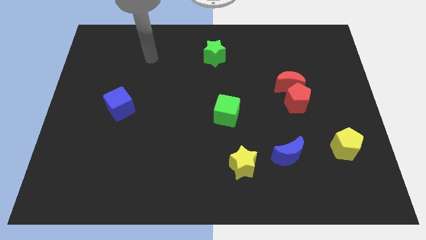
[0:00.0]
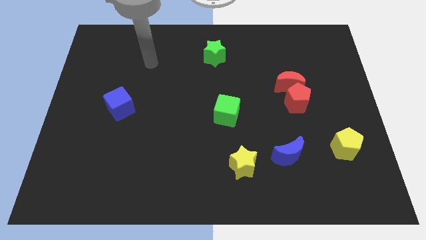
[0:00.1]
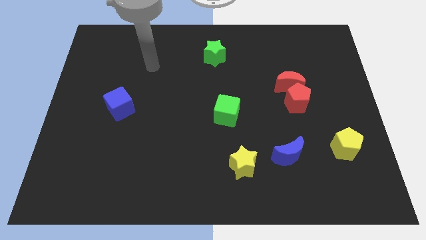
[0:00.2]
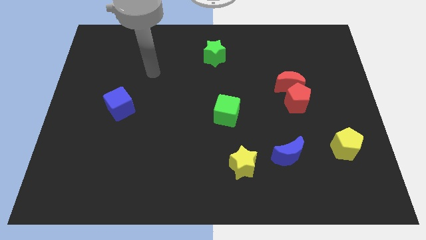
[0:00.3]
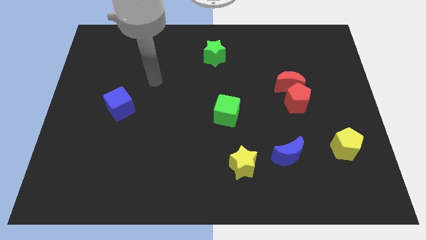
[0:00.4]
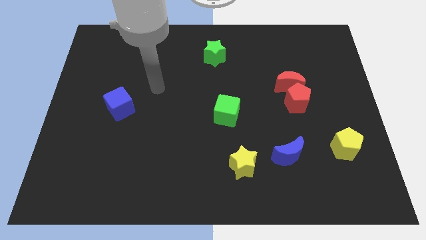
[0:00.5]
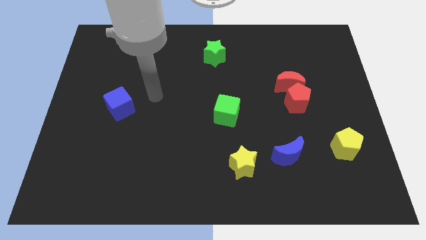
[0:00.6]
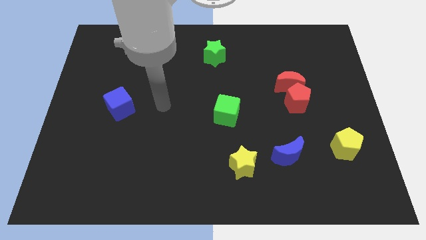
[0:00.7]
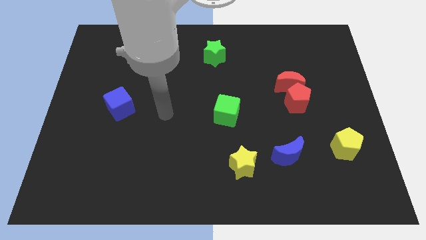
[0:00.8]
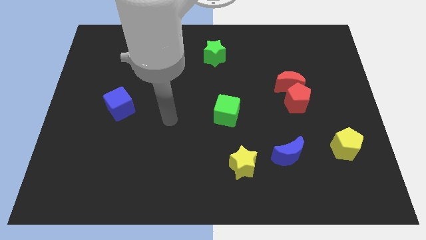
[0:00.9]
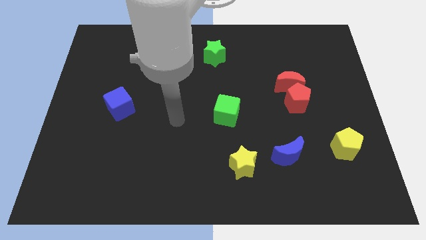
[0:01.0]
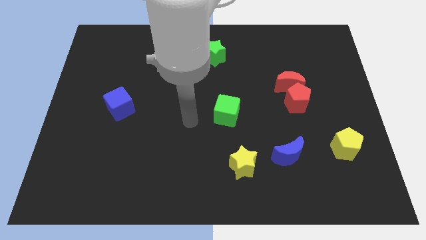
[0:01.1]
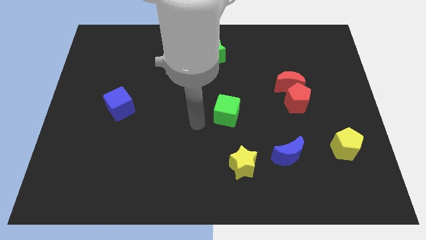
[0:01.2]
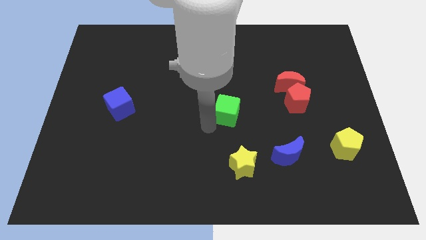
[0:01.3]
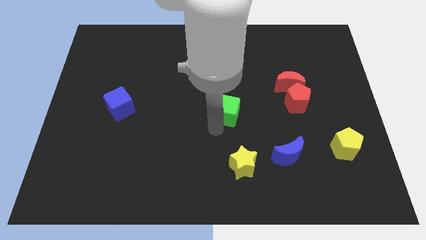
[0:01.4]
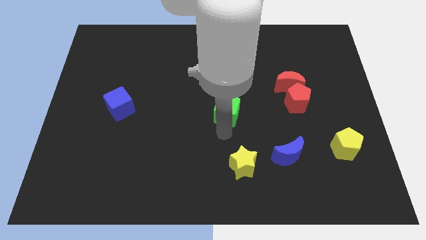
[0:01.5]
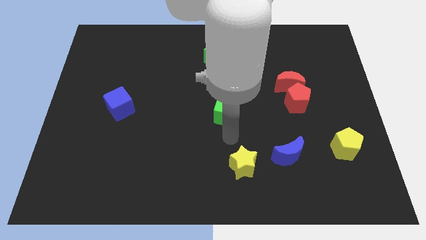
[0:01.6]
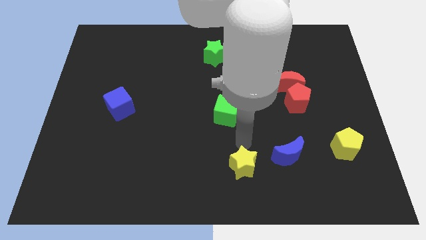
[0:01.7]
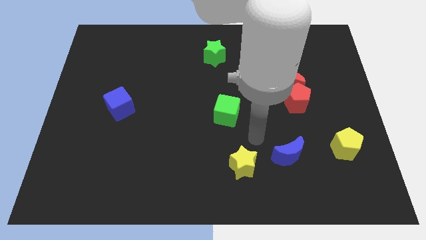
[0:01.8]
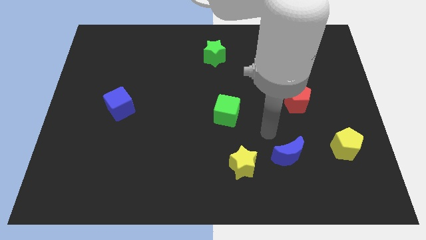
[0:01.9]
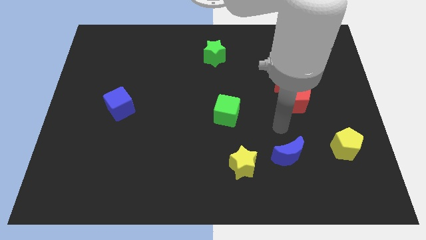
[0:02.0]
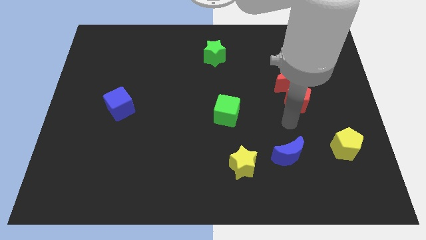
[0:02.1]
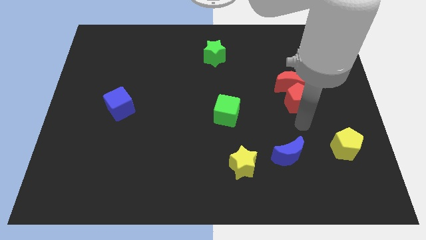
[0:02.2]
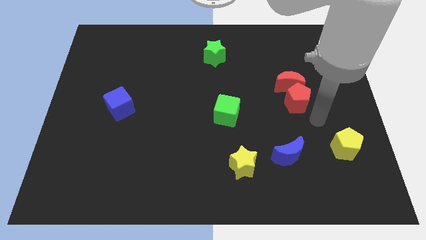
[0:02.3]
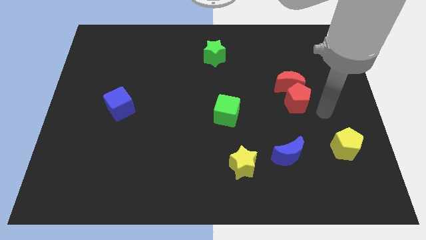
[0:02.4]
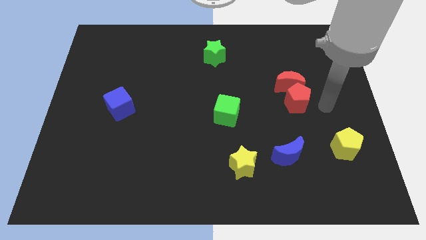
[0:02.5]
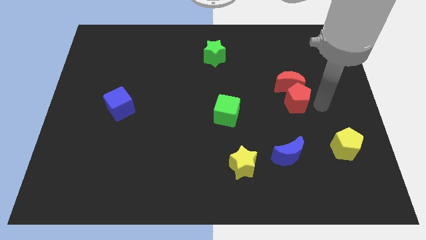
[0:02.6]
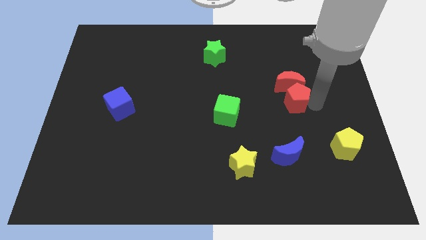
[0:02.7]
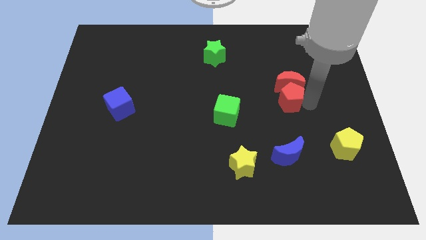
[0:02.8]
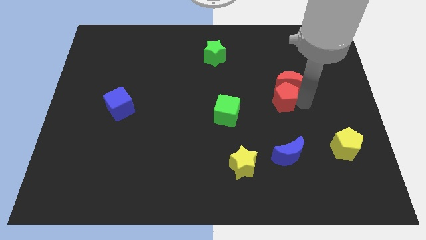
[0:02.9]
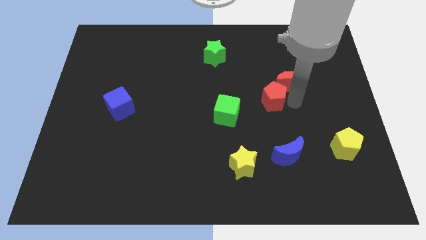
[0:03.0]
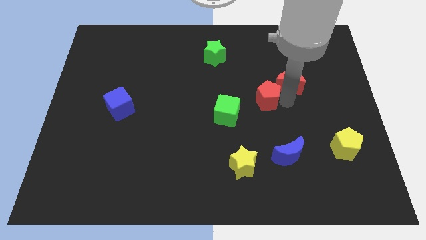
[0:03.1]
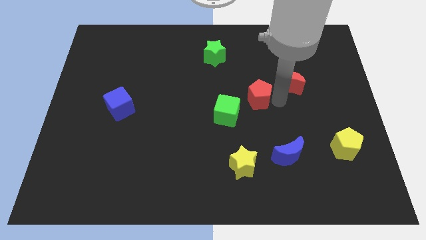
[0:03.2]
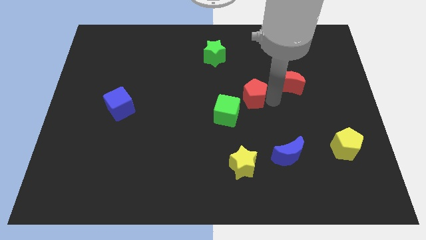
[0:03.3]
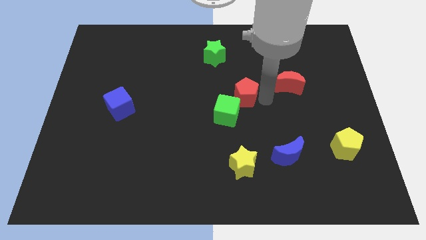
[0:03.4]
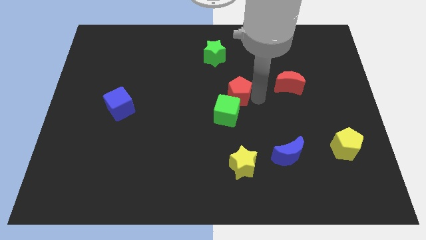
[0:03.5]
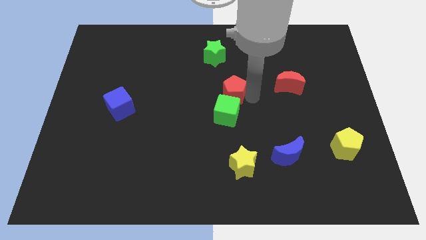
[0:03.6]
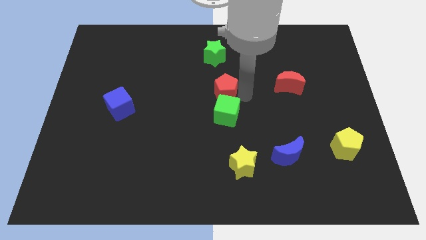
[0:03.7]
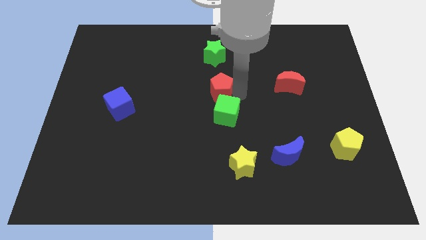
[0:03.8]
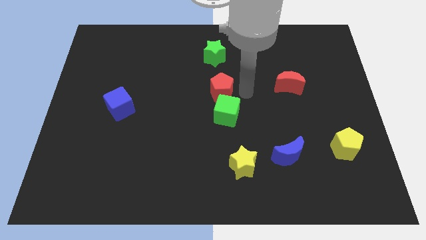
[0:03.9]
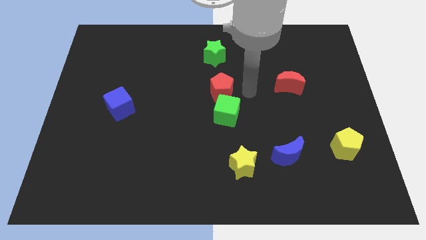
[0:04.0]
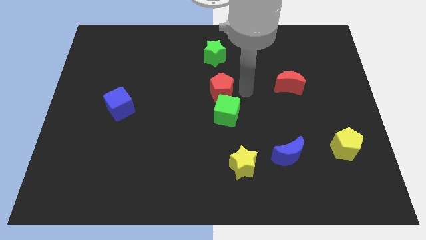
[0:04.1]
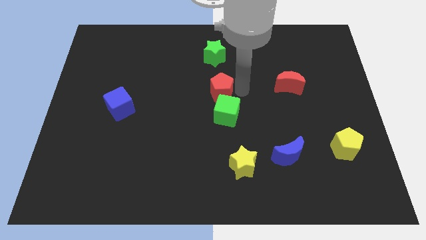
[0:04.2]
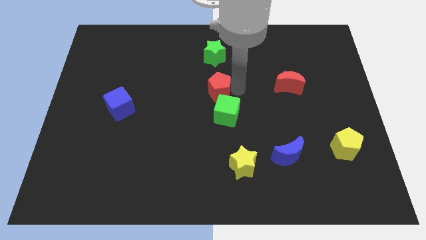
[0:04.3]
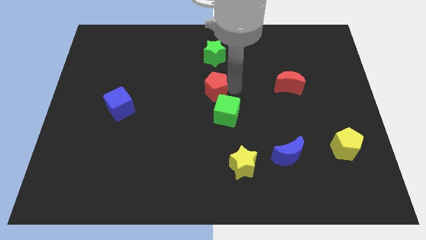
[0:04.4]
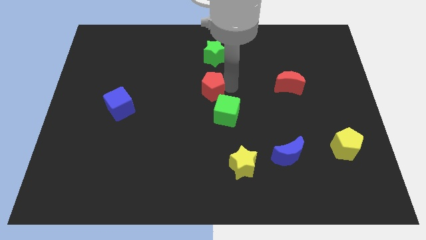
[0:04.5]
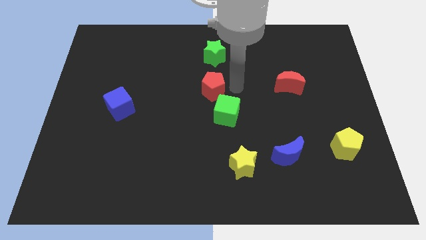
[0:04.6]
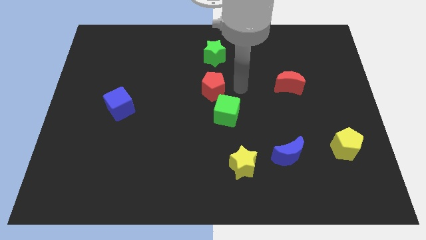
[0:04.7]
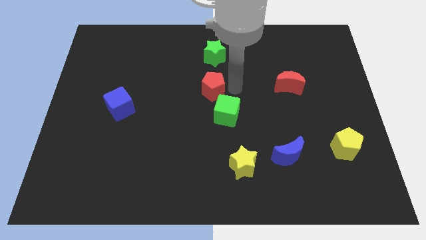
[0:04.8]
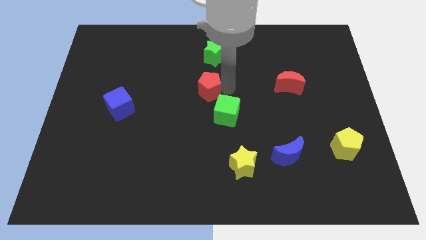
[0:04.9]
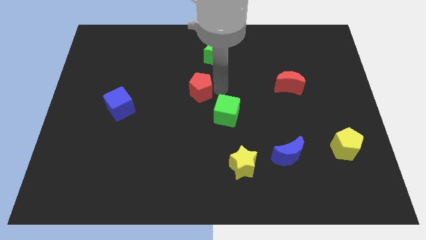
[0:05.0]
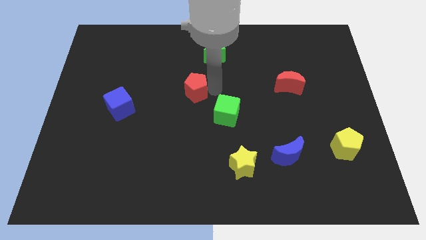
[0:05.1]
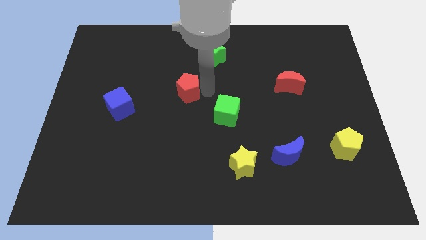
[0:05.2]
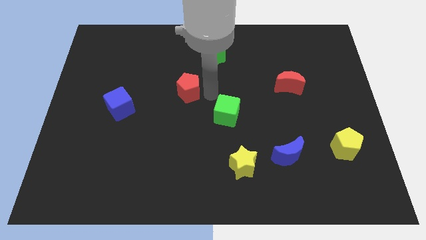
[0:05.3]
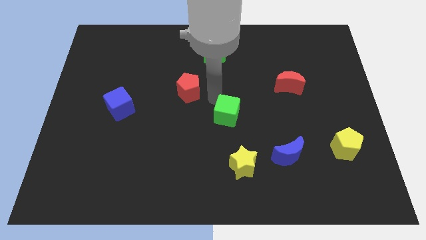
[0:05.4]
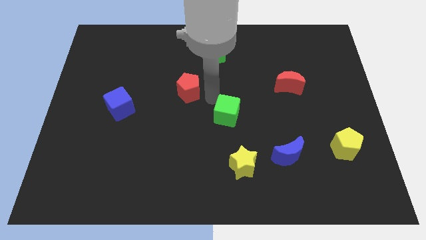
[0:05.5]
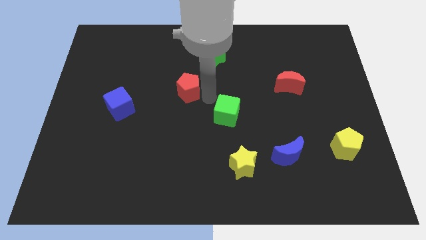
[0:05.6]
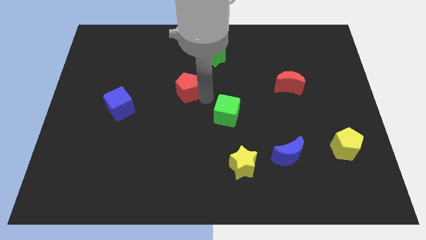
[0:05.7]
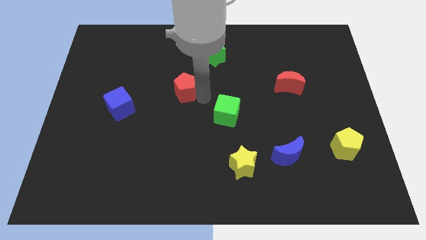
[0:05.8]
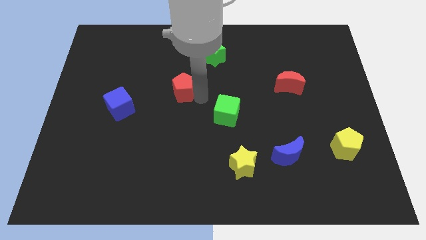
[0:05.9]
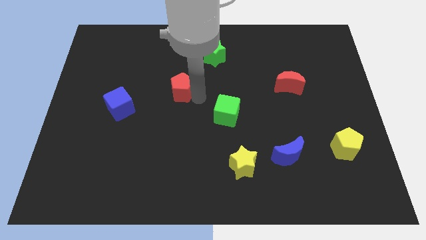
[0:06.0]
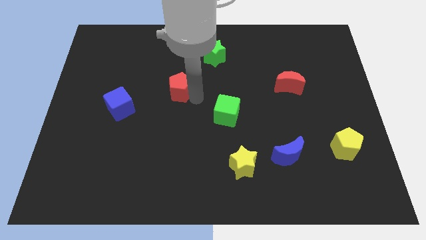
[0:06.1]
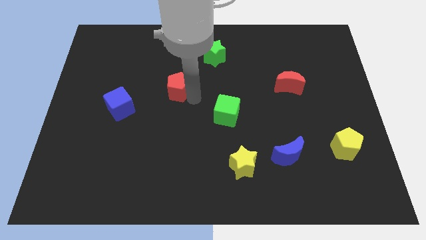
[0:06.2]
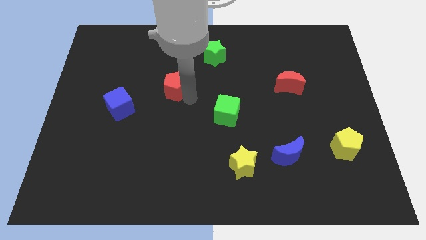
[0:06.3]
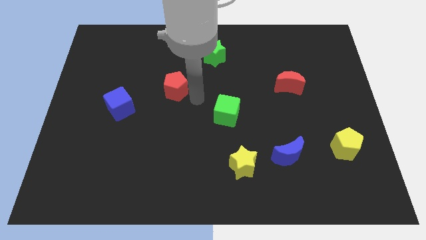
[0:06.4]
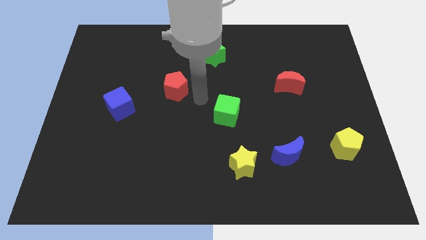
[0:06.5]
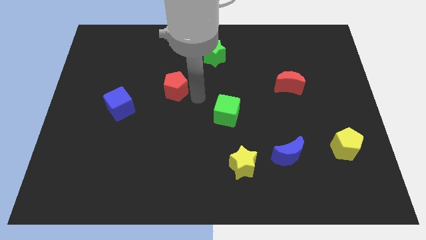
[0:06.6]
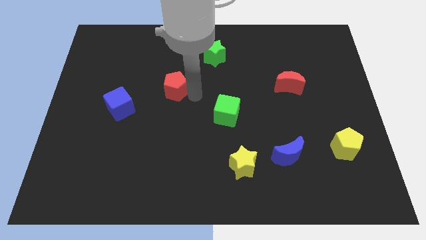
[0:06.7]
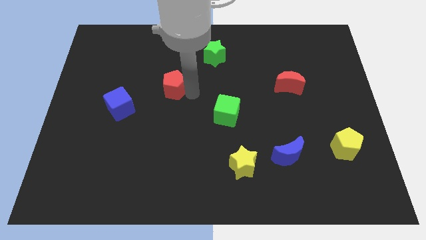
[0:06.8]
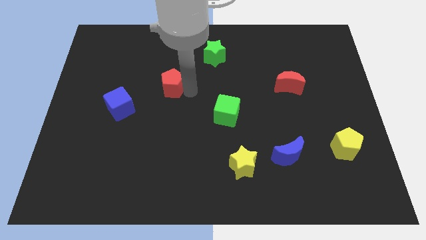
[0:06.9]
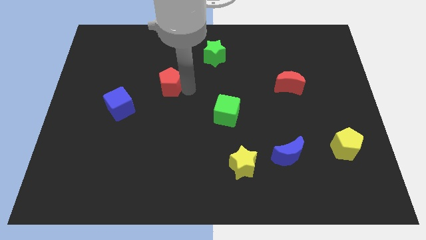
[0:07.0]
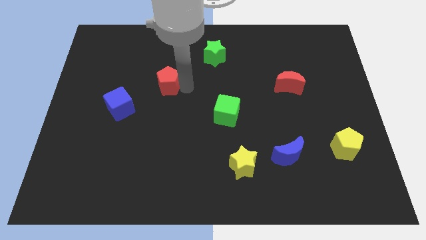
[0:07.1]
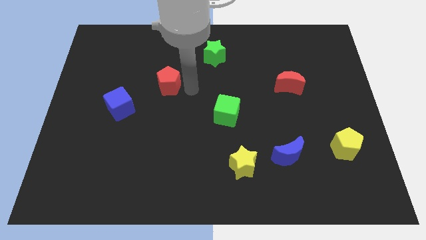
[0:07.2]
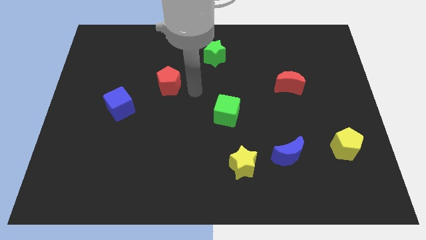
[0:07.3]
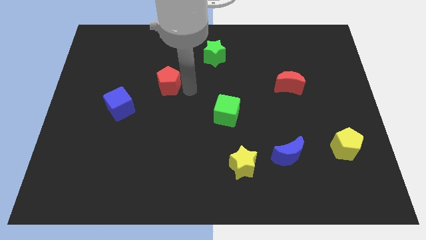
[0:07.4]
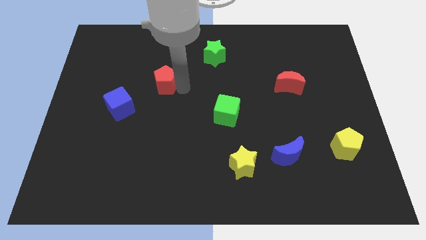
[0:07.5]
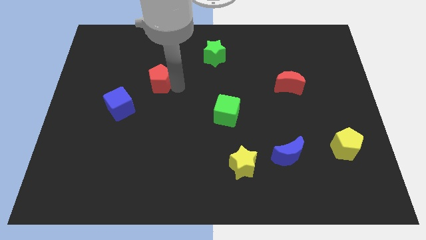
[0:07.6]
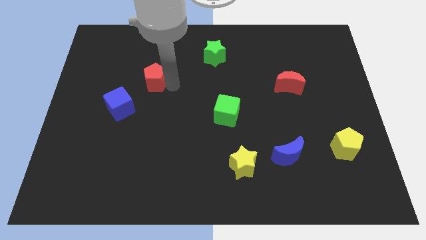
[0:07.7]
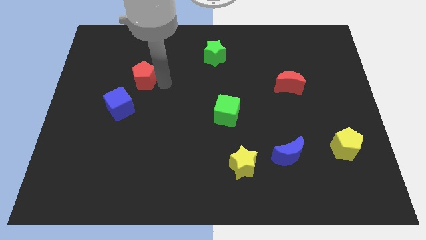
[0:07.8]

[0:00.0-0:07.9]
move the red pentagon to the top side of the blue cube
